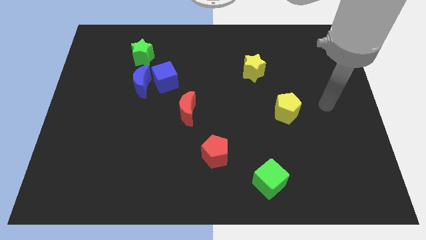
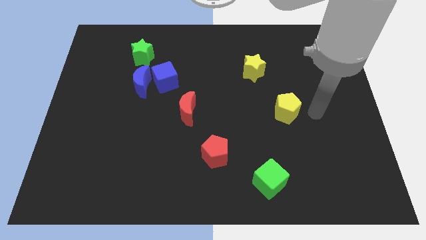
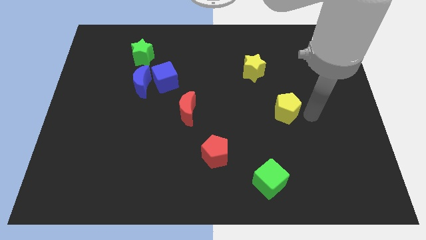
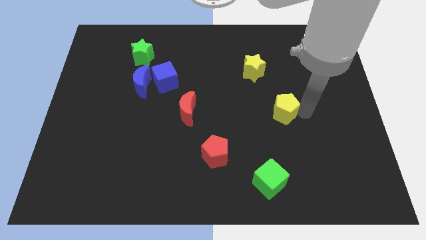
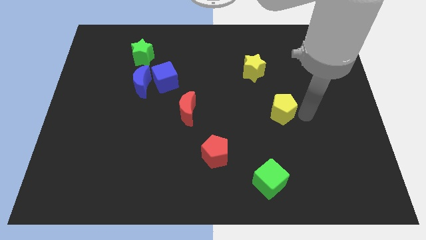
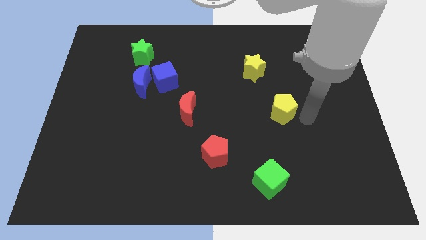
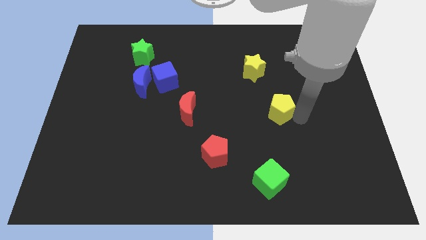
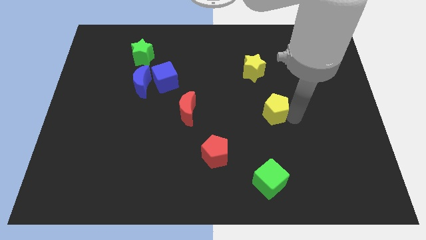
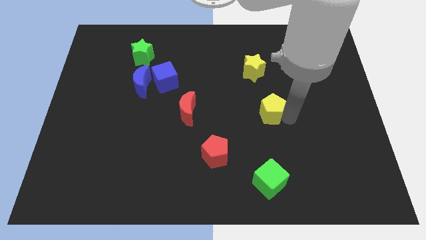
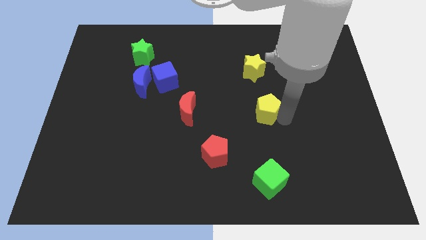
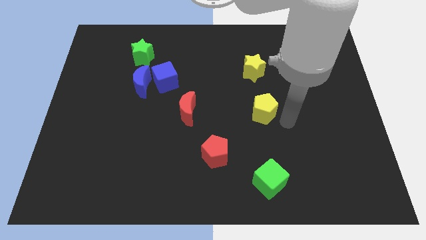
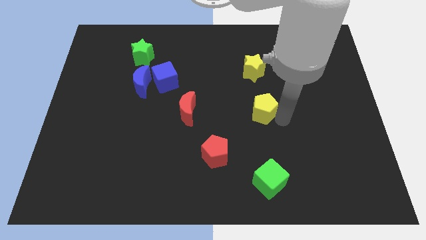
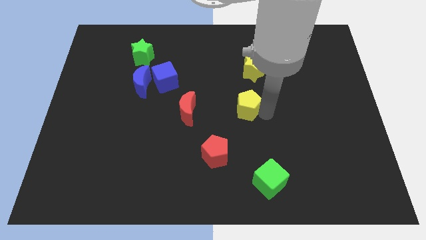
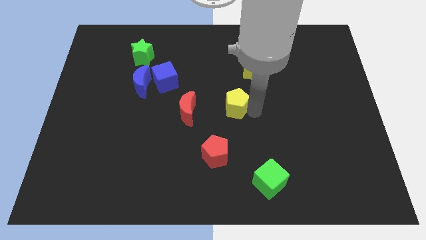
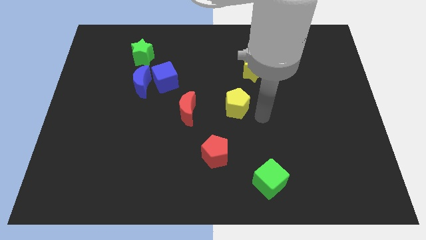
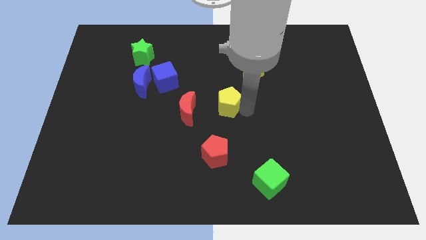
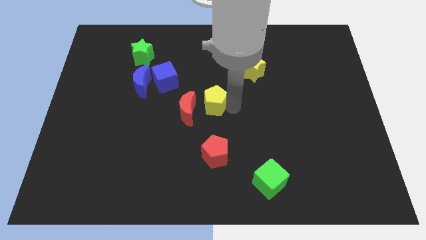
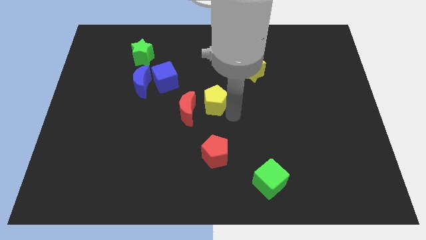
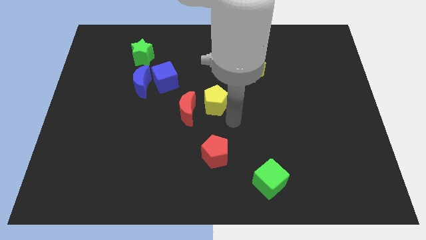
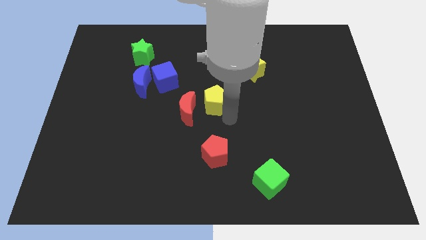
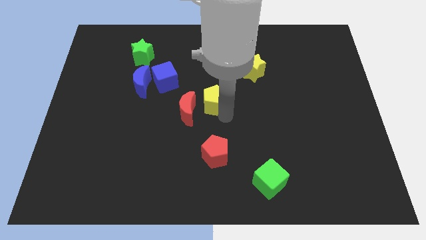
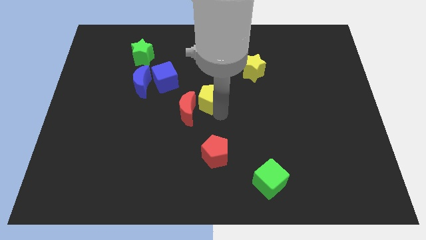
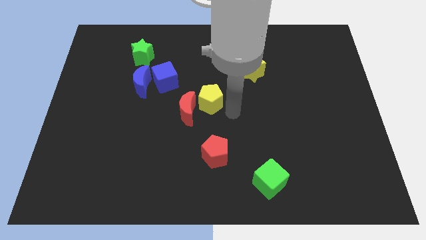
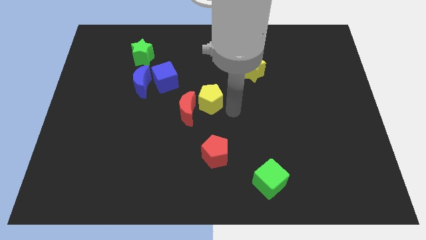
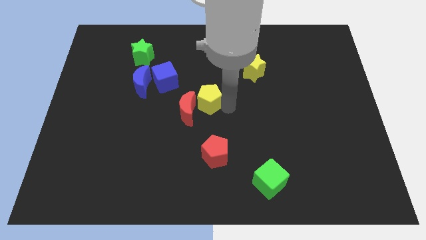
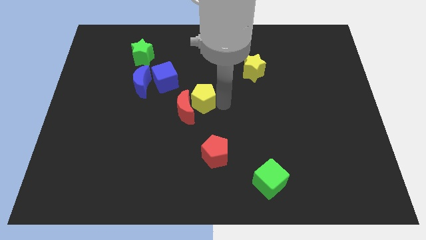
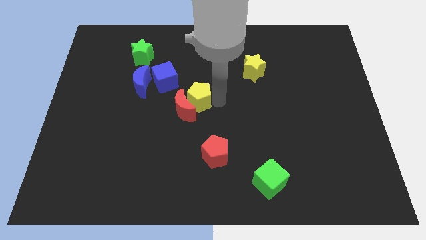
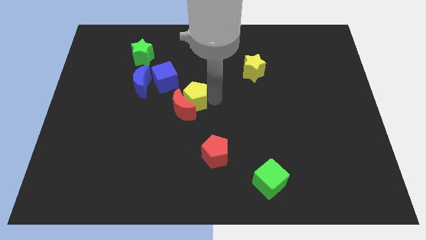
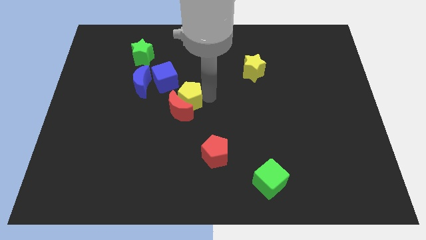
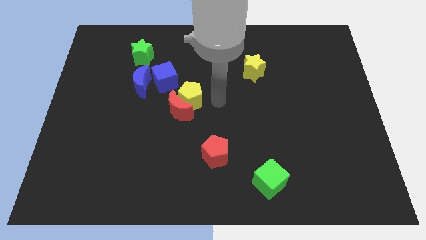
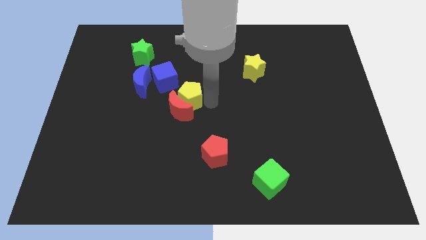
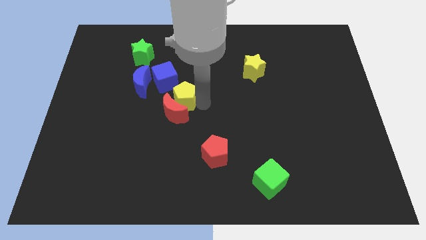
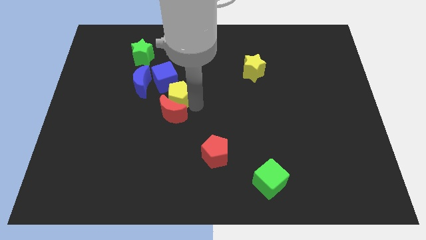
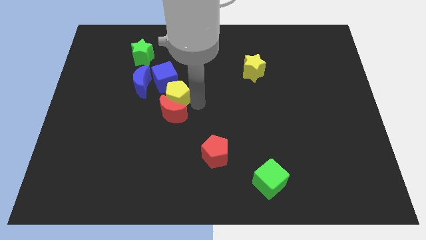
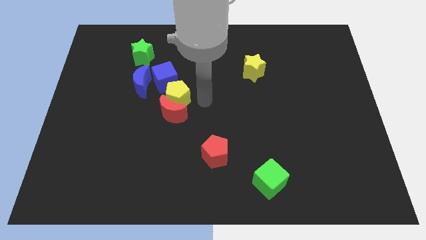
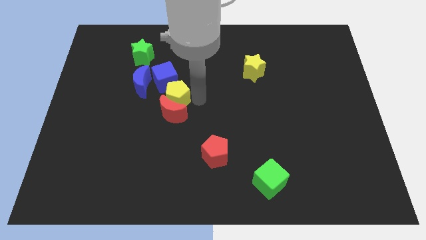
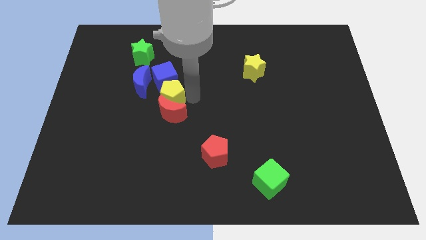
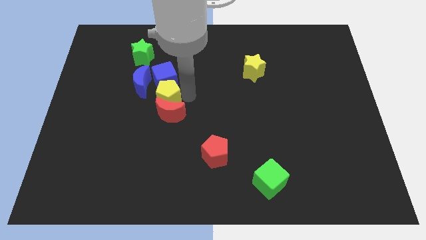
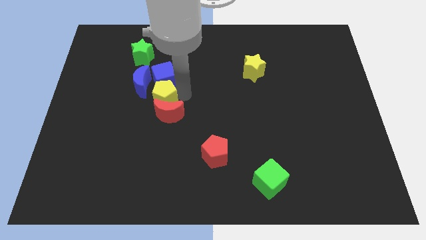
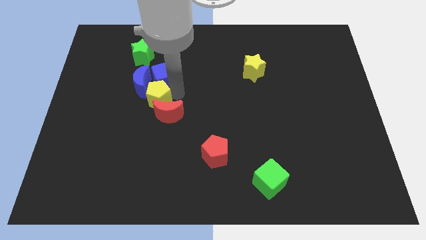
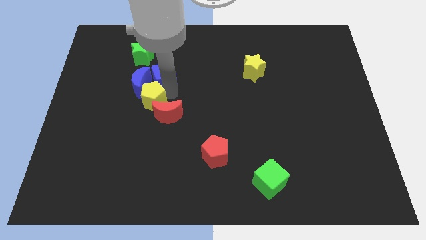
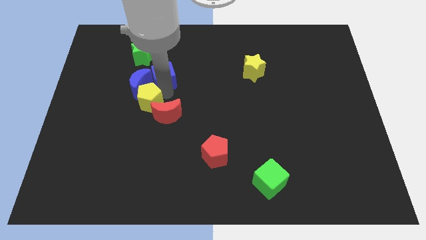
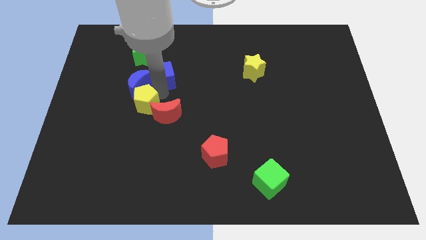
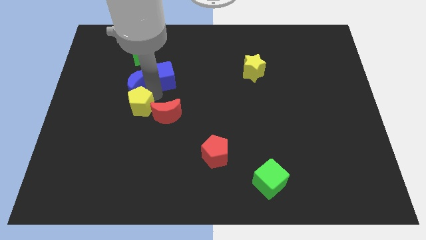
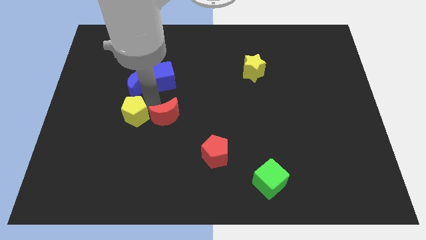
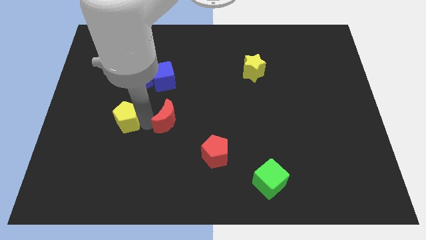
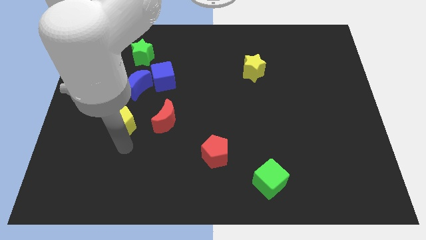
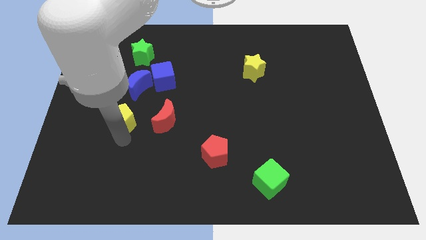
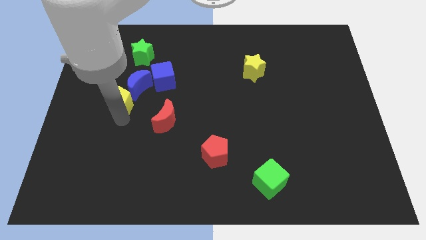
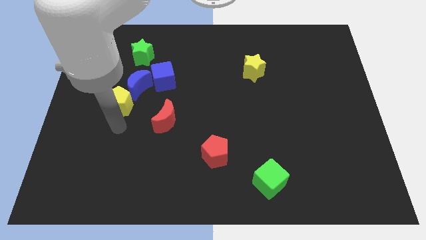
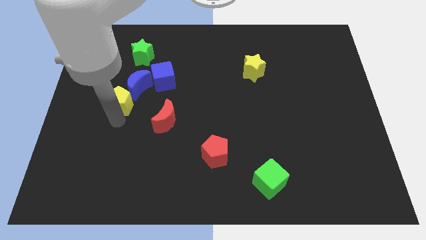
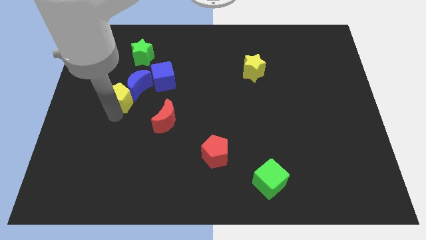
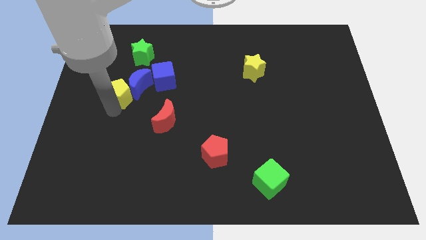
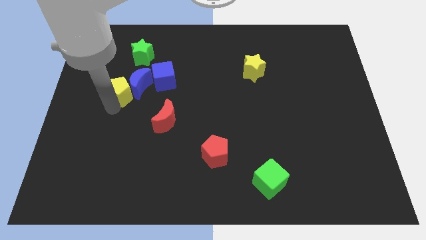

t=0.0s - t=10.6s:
move the yellow pentagon to the left of the blue cube

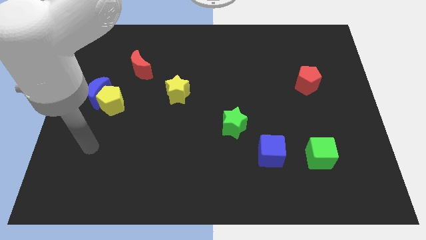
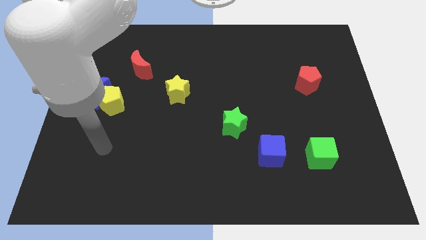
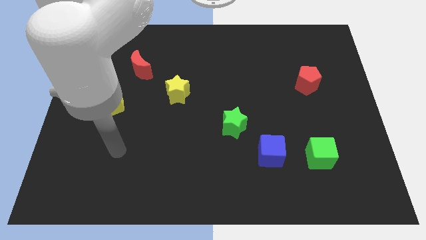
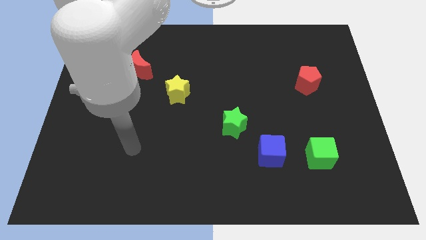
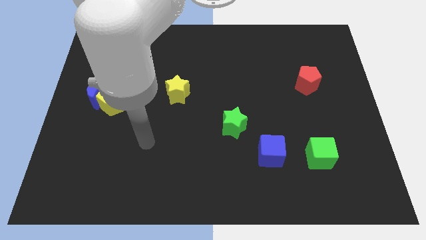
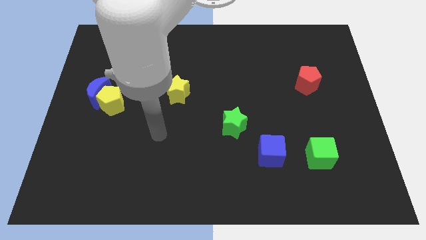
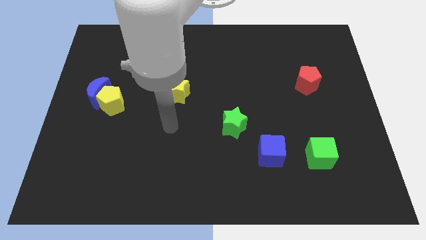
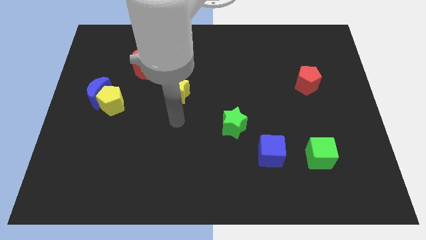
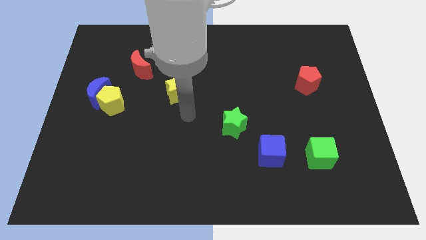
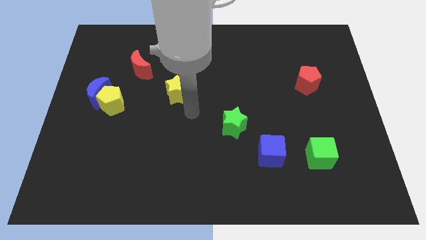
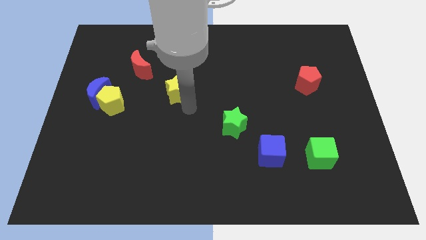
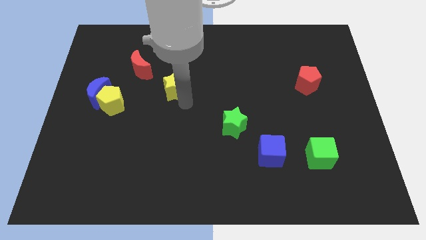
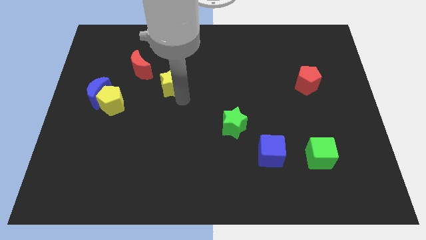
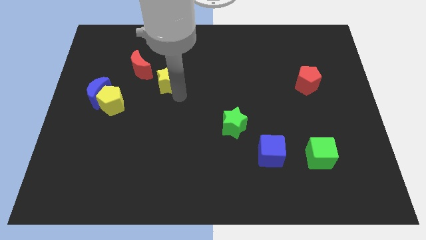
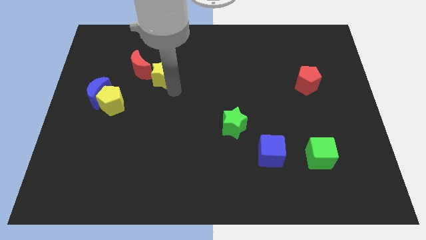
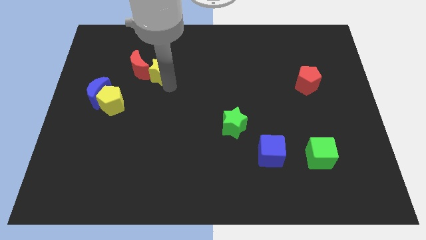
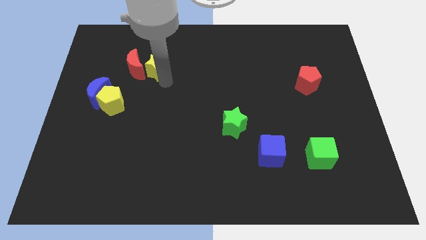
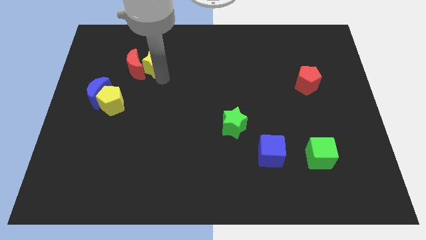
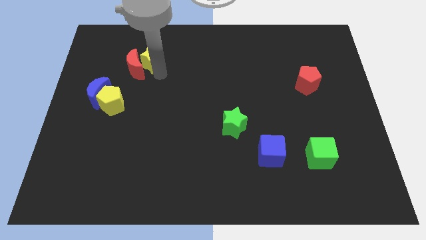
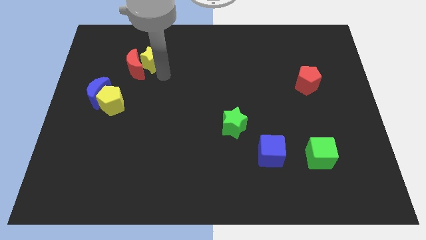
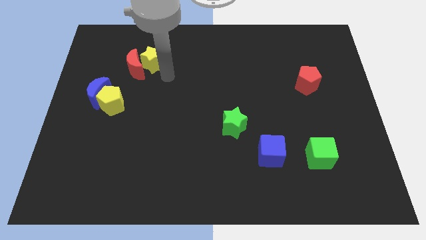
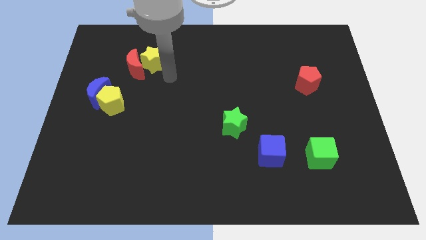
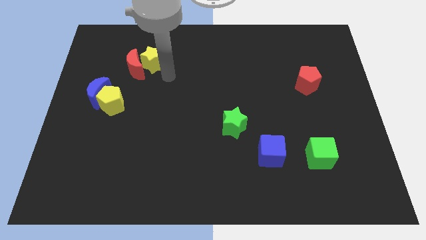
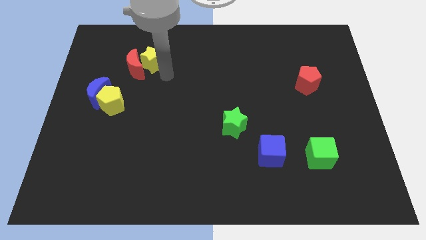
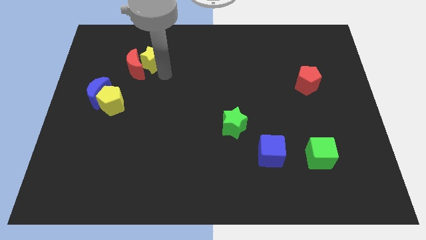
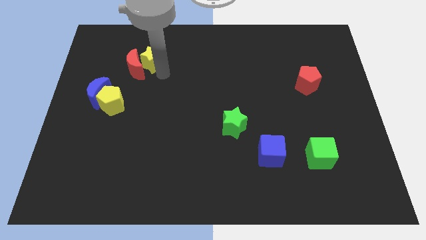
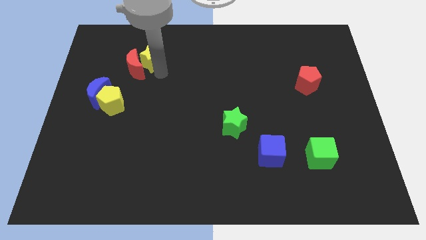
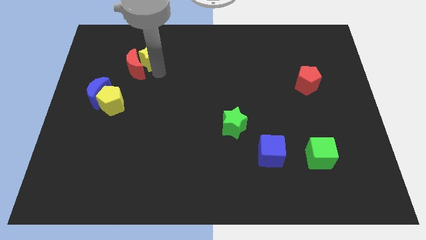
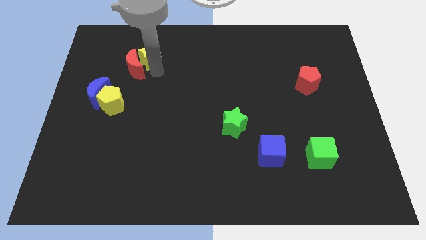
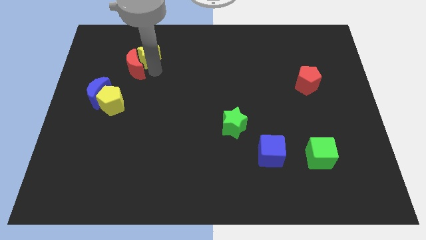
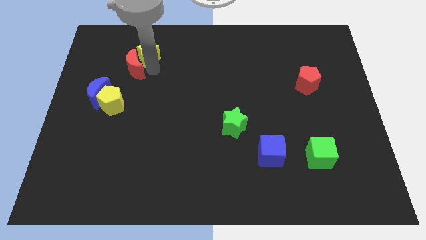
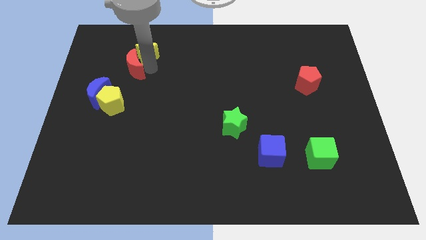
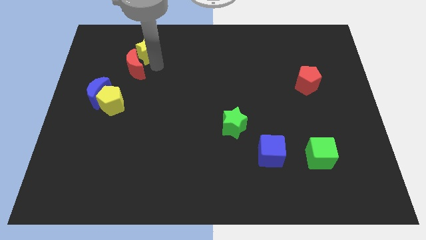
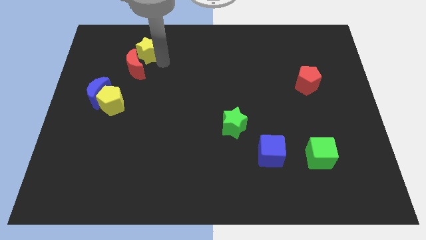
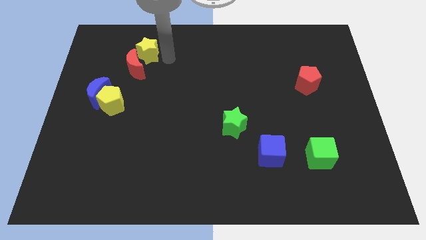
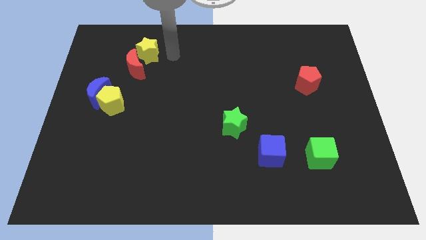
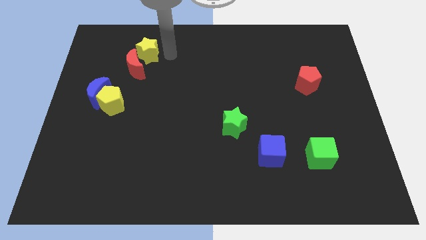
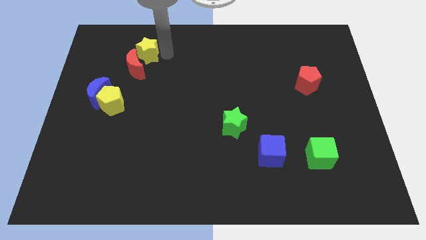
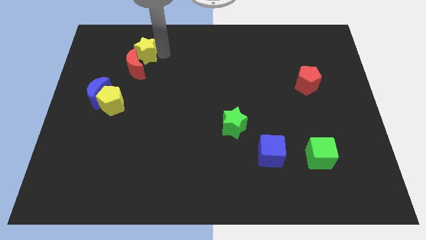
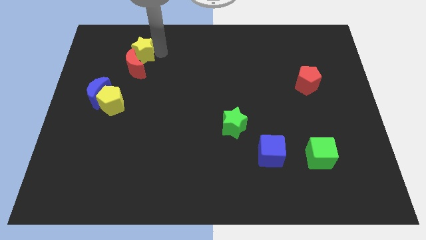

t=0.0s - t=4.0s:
slide the yellow star to the top left side of the red moon
